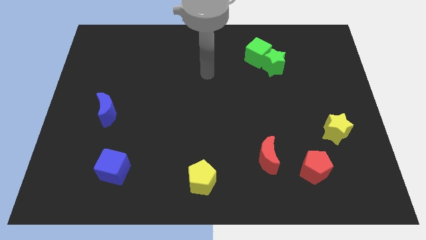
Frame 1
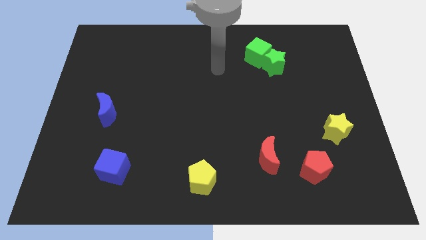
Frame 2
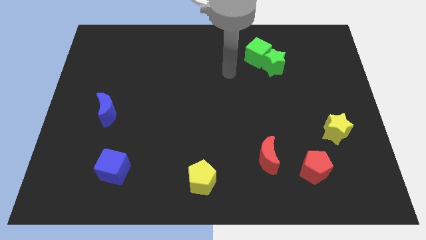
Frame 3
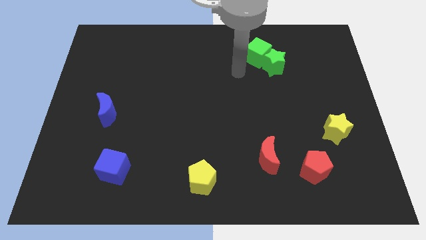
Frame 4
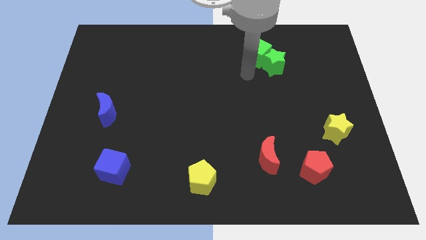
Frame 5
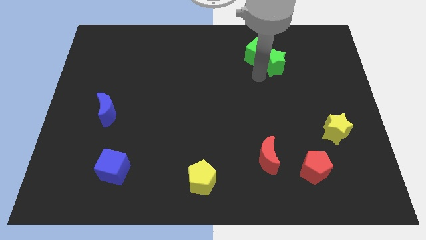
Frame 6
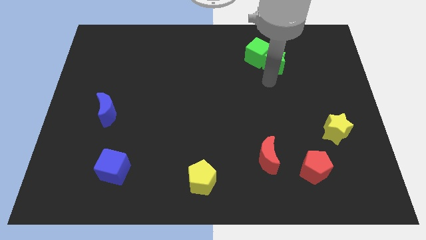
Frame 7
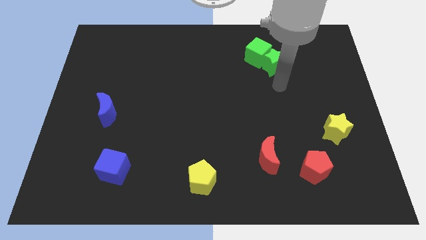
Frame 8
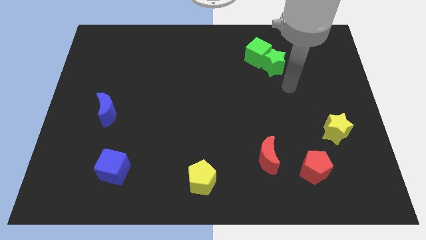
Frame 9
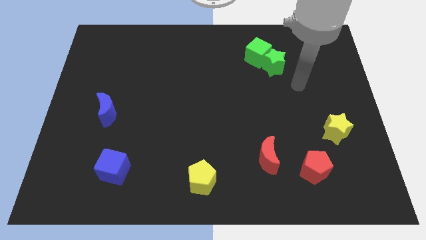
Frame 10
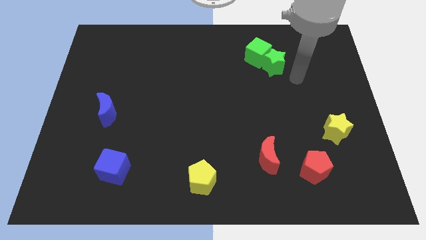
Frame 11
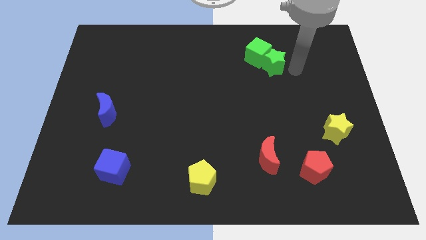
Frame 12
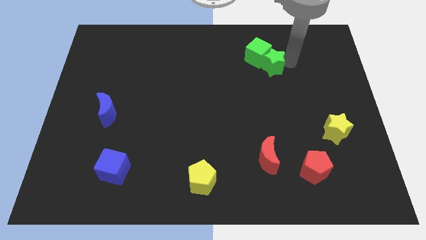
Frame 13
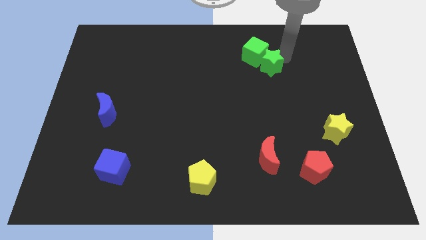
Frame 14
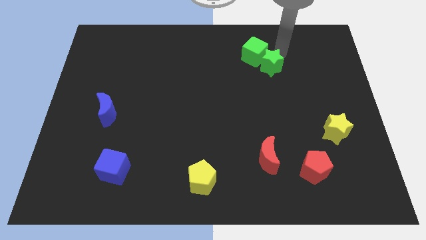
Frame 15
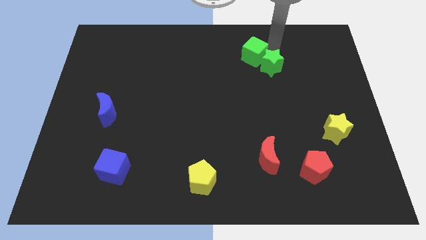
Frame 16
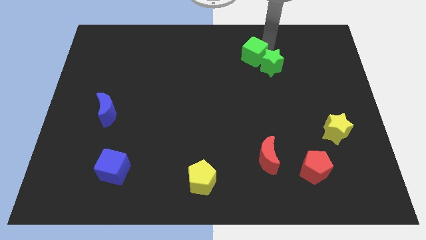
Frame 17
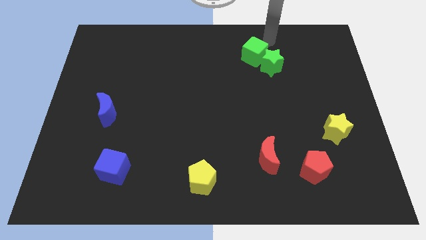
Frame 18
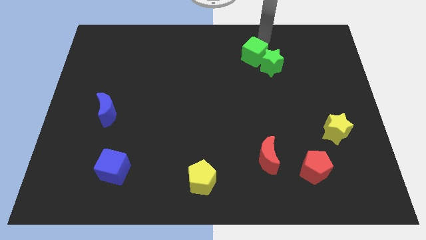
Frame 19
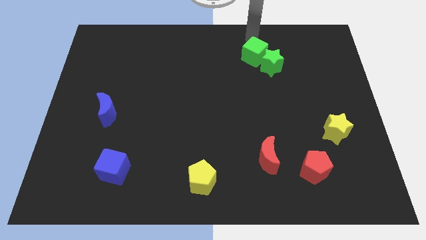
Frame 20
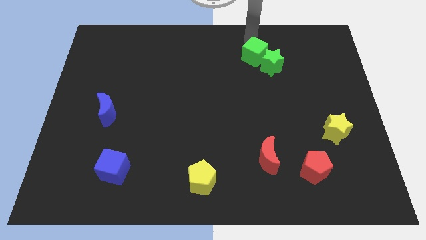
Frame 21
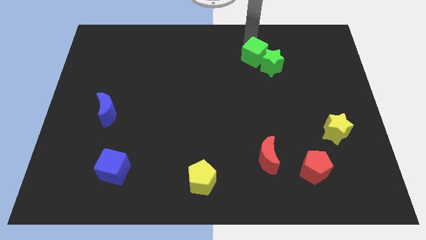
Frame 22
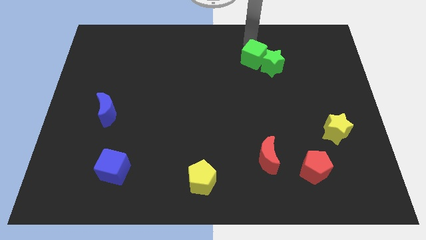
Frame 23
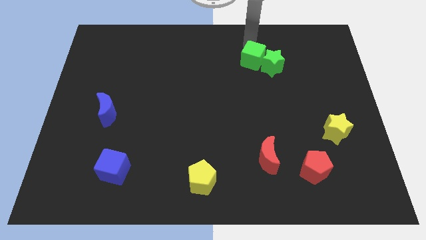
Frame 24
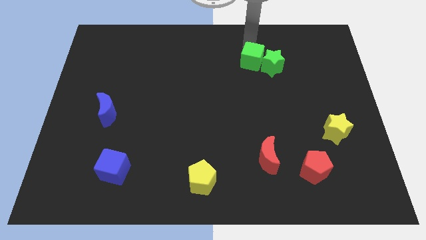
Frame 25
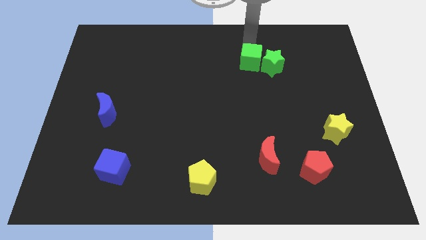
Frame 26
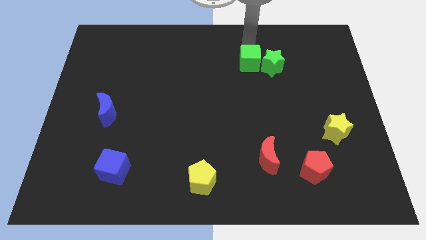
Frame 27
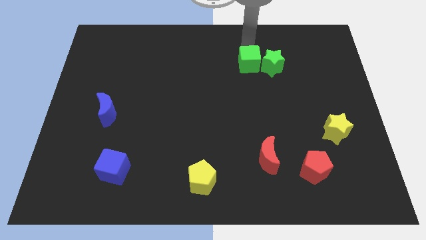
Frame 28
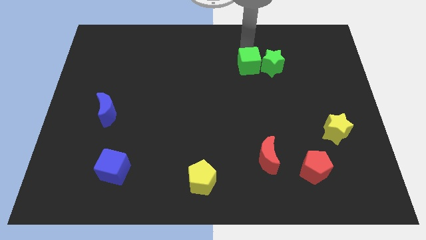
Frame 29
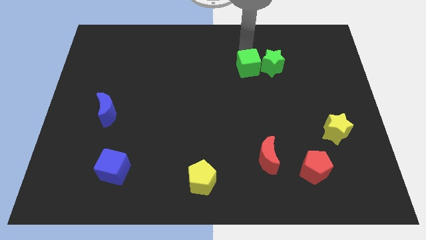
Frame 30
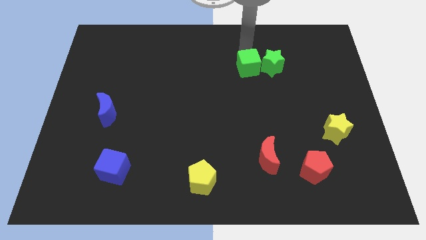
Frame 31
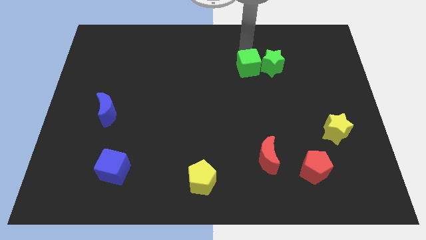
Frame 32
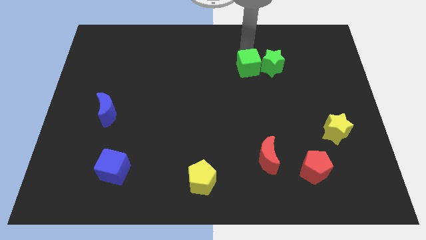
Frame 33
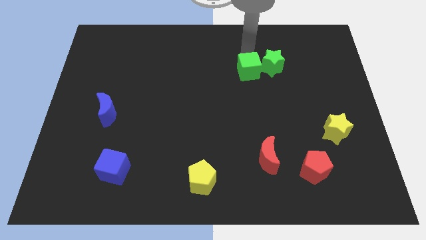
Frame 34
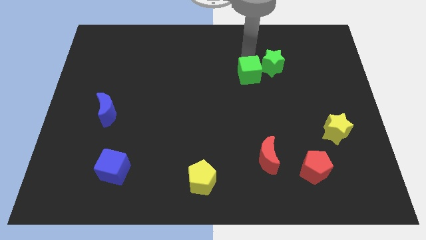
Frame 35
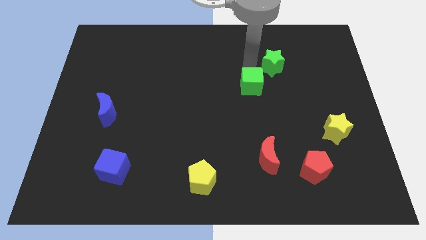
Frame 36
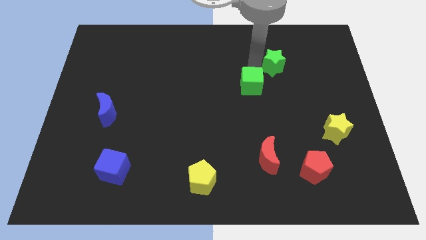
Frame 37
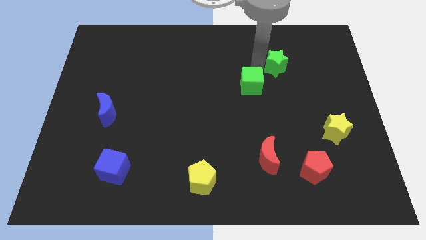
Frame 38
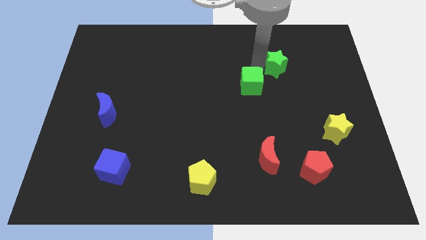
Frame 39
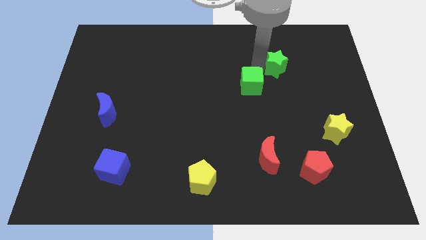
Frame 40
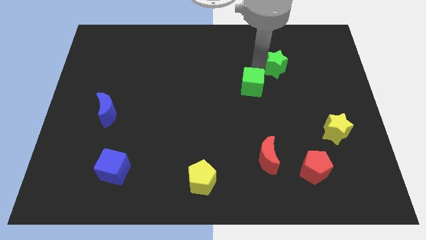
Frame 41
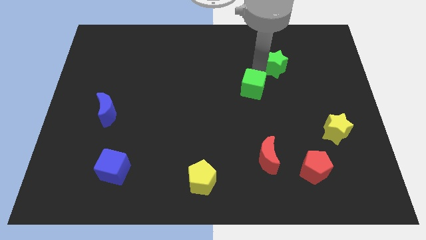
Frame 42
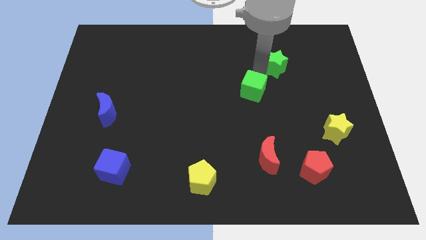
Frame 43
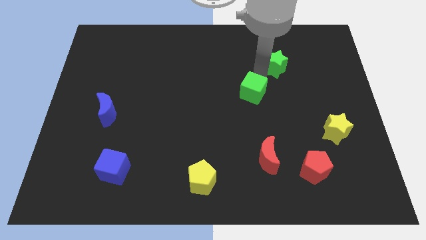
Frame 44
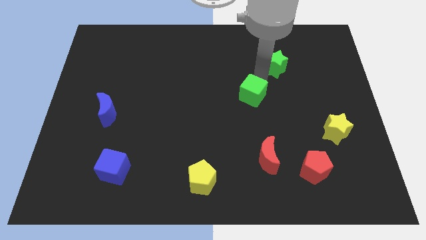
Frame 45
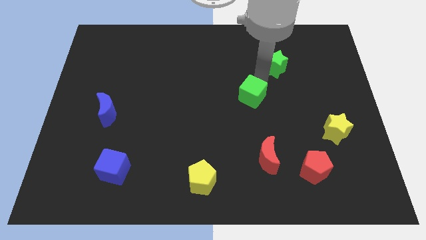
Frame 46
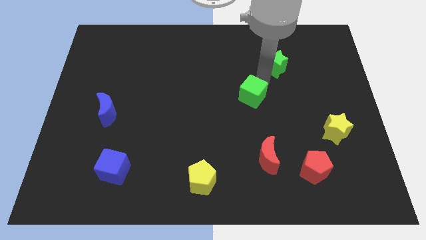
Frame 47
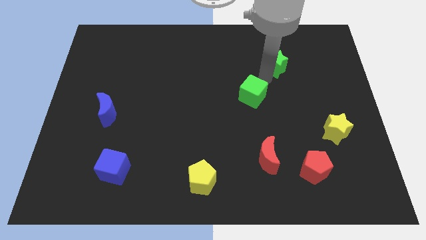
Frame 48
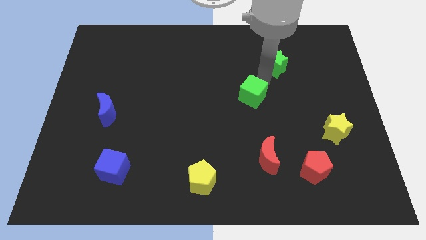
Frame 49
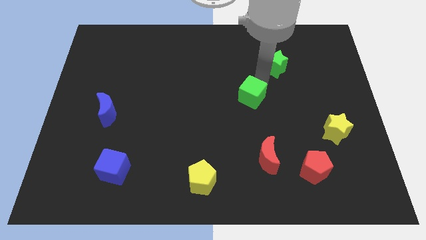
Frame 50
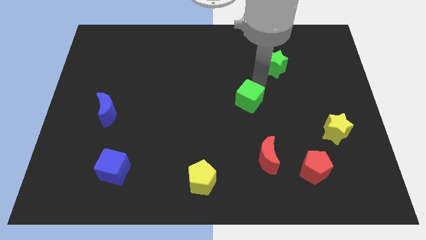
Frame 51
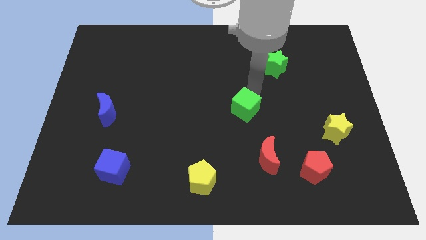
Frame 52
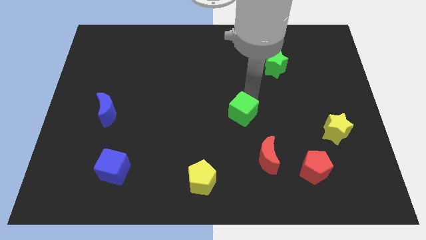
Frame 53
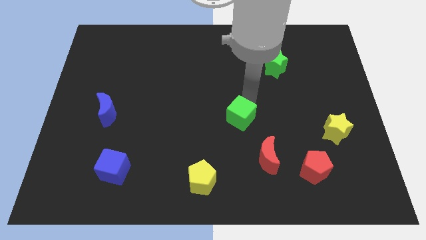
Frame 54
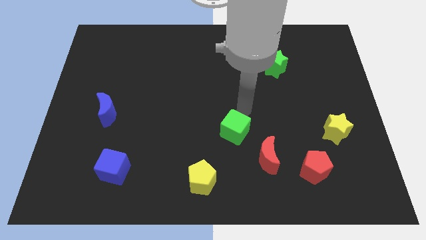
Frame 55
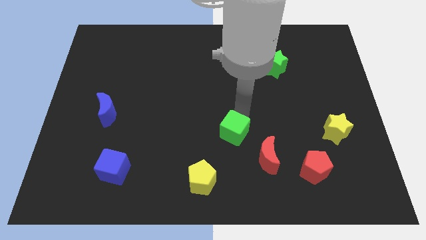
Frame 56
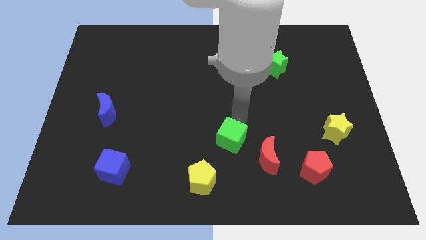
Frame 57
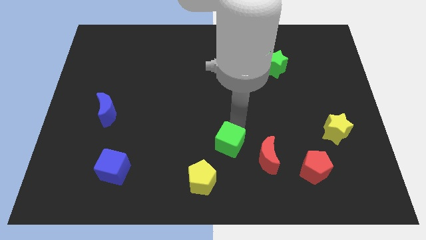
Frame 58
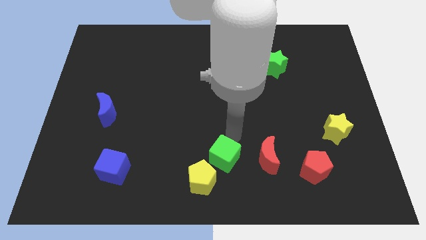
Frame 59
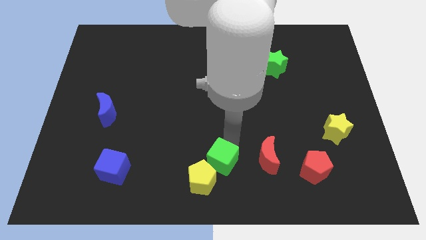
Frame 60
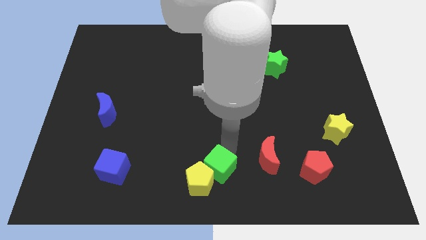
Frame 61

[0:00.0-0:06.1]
slide the green cube close to the yellow pentagon
